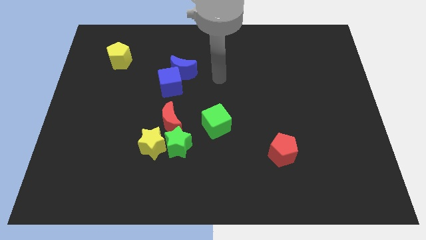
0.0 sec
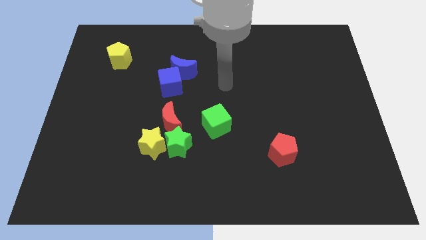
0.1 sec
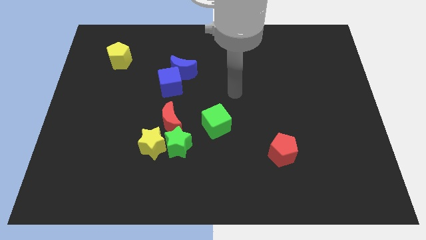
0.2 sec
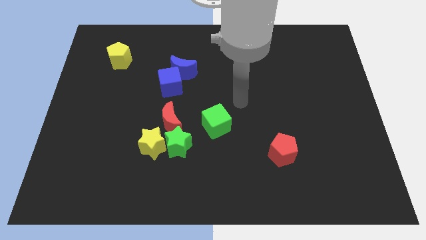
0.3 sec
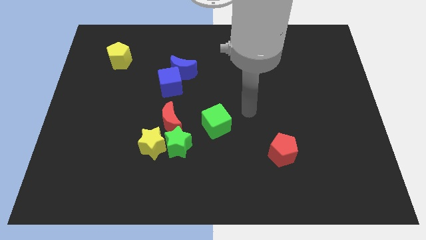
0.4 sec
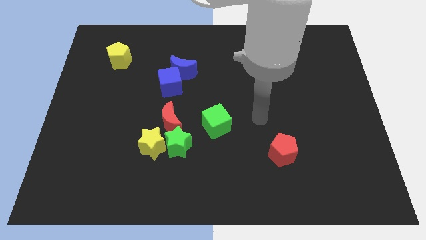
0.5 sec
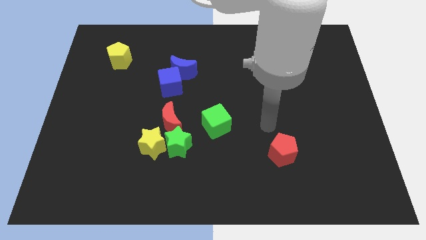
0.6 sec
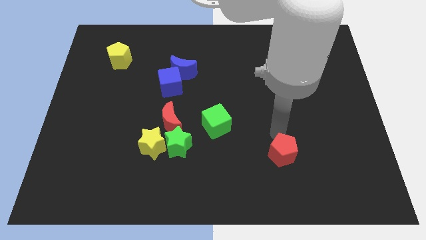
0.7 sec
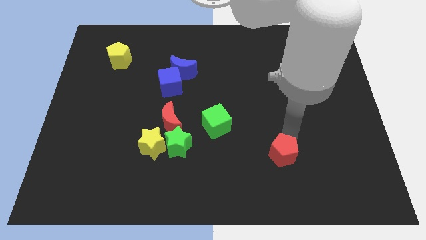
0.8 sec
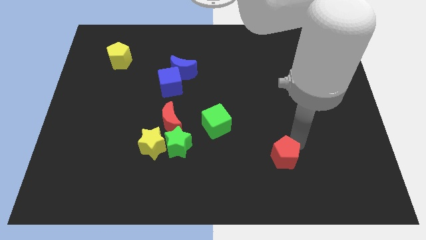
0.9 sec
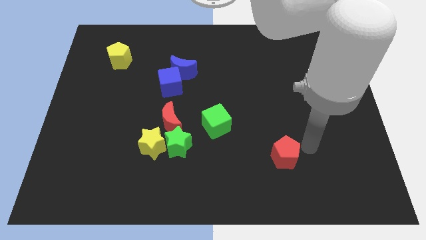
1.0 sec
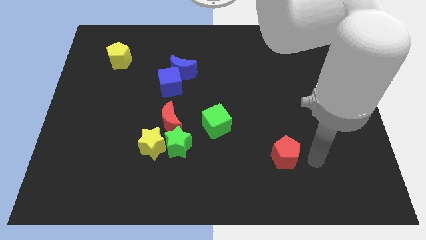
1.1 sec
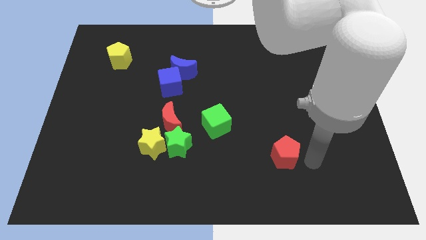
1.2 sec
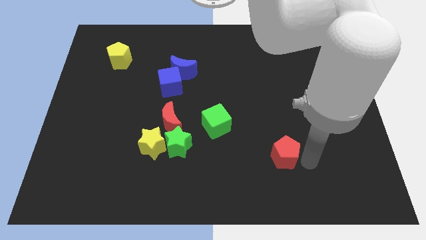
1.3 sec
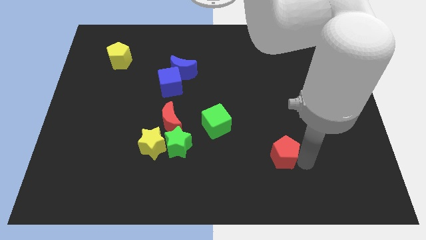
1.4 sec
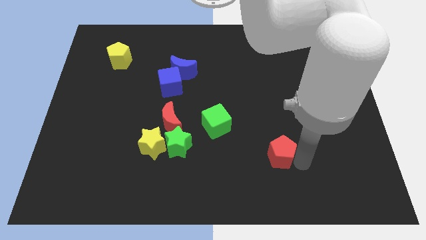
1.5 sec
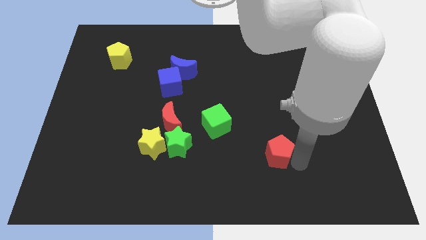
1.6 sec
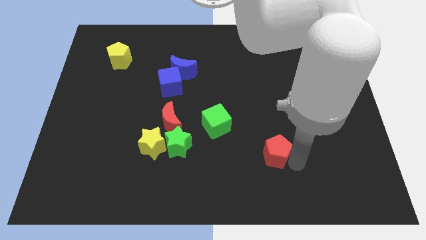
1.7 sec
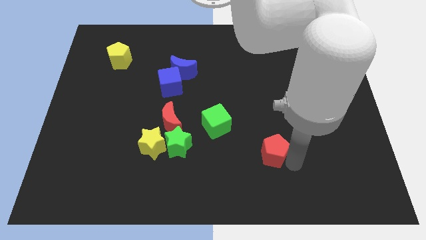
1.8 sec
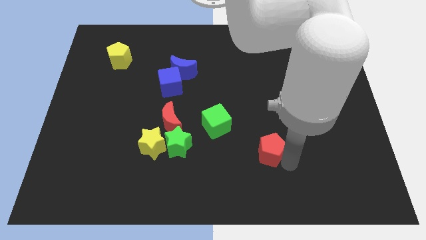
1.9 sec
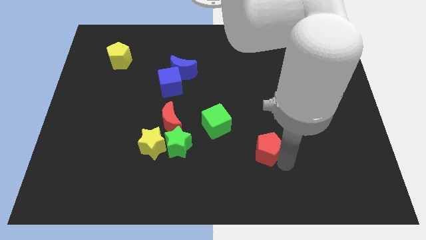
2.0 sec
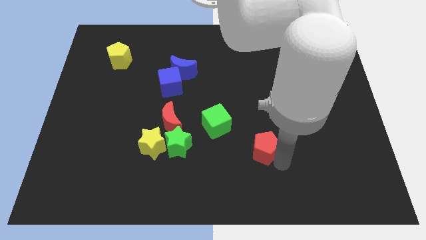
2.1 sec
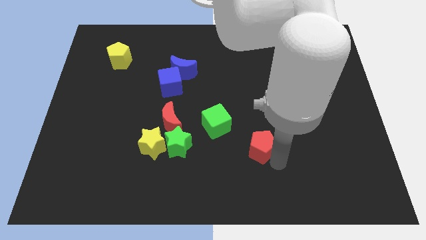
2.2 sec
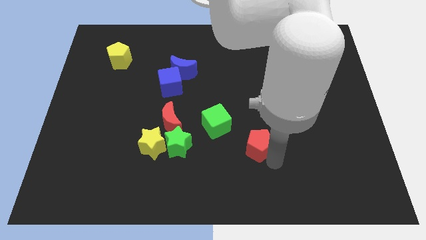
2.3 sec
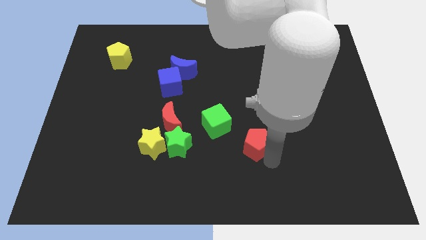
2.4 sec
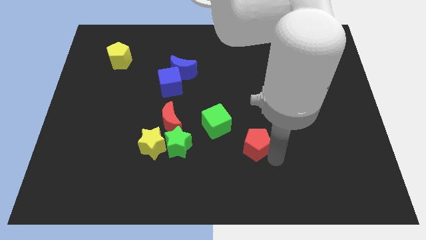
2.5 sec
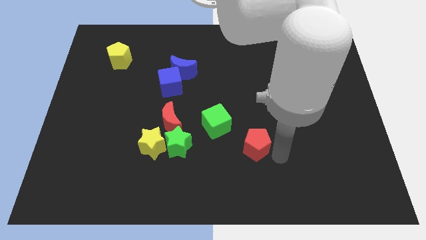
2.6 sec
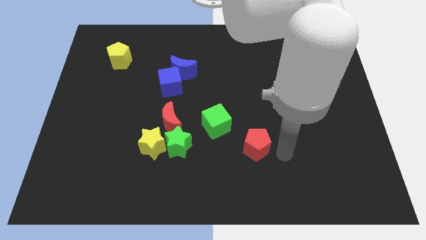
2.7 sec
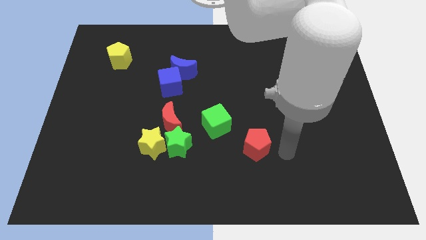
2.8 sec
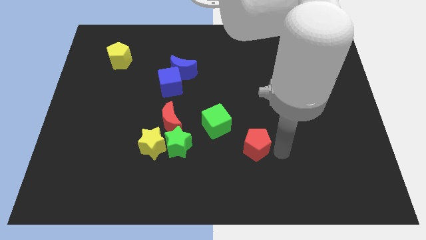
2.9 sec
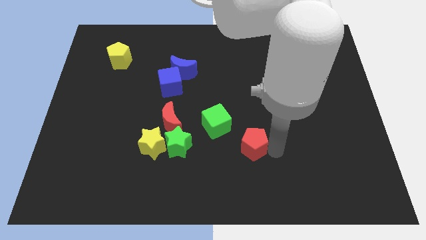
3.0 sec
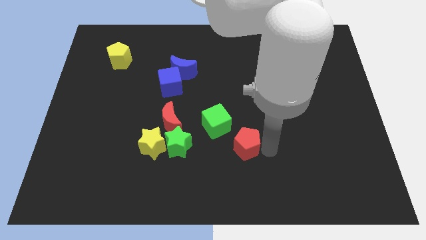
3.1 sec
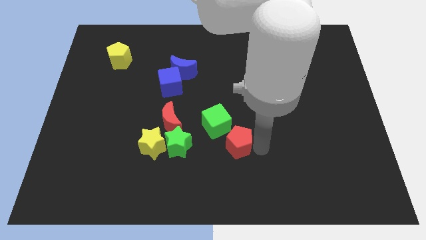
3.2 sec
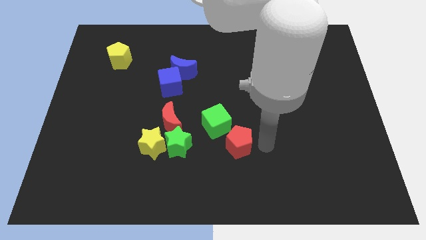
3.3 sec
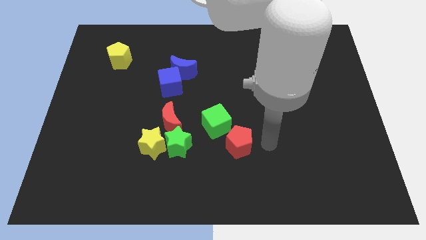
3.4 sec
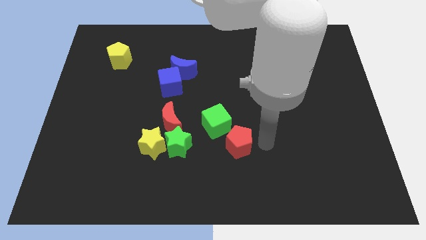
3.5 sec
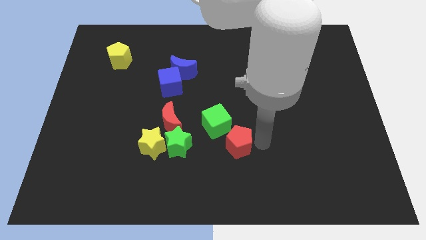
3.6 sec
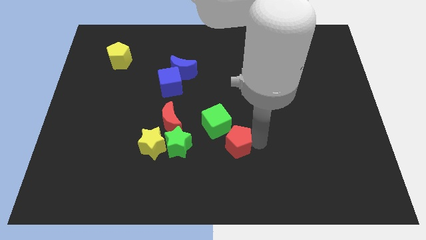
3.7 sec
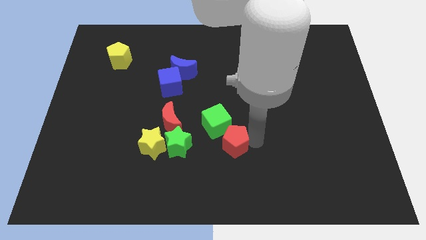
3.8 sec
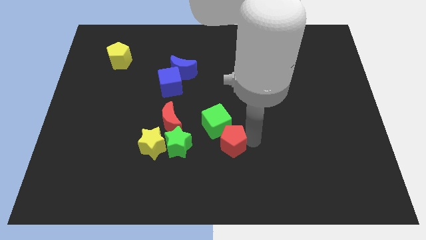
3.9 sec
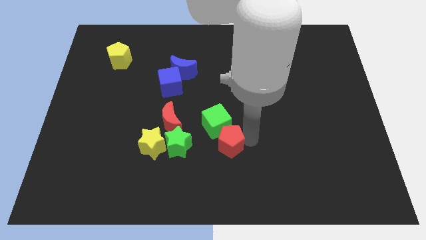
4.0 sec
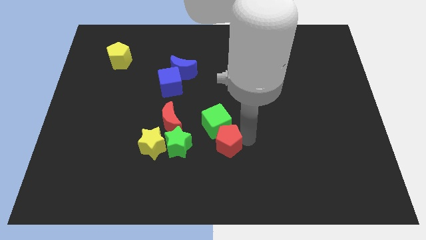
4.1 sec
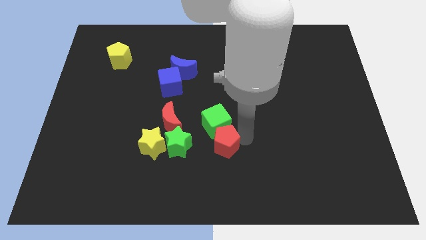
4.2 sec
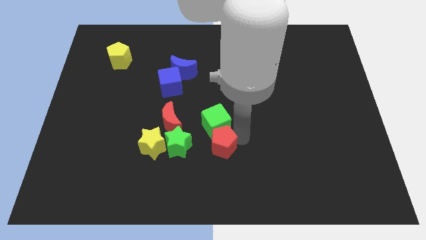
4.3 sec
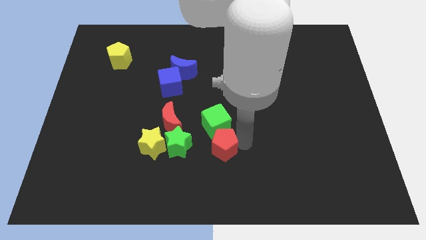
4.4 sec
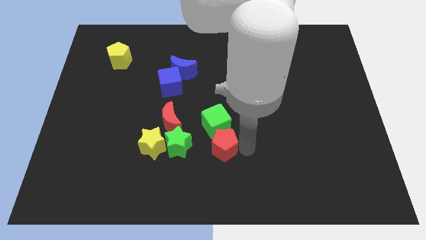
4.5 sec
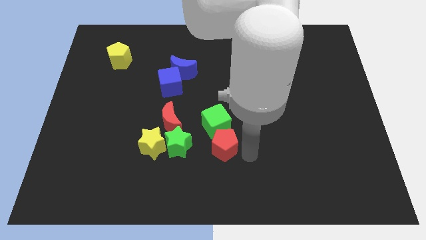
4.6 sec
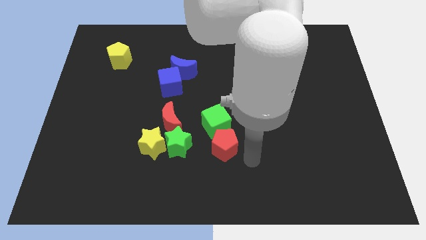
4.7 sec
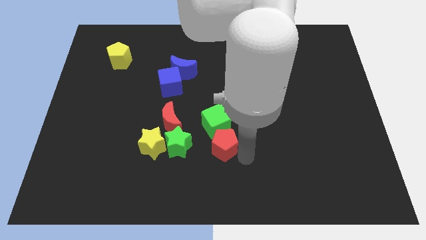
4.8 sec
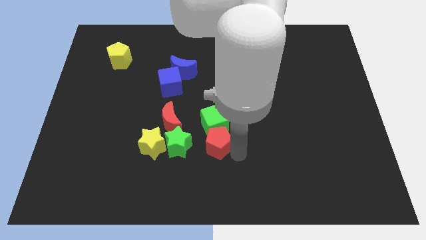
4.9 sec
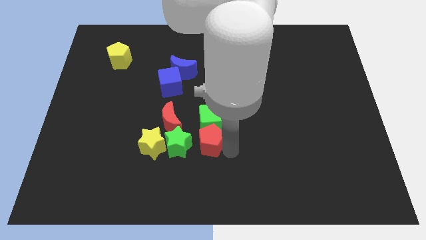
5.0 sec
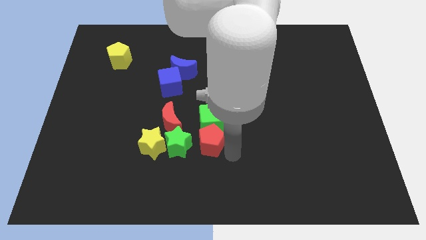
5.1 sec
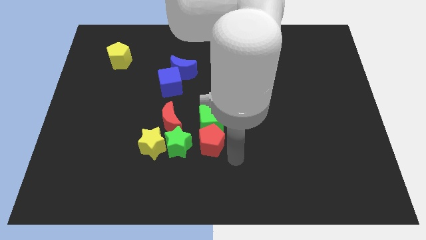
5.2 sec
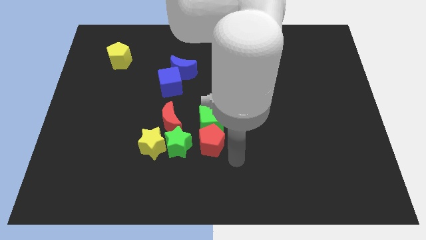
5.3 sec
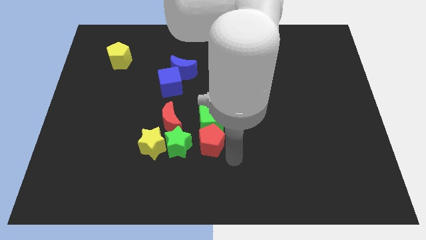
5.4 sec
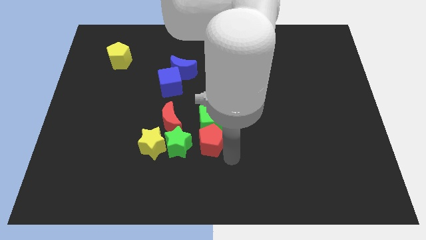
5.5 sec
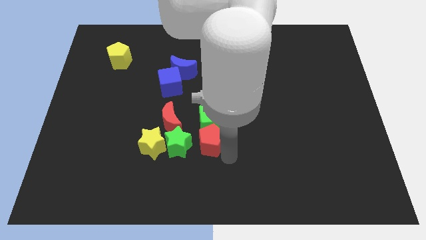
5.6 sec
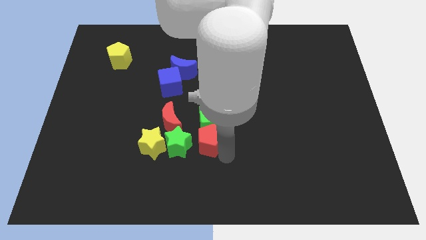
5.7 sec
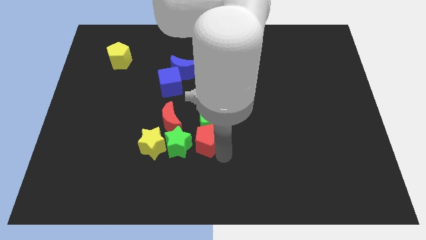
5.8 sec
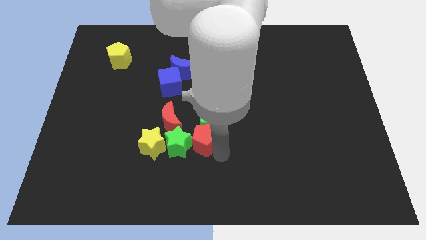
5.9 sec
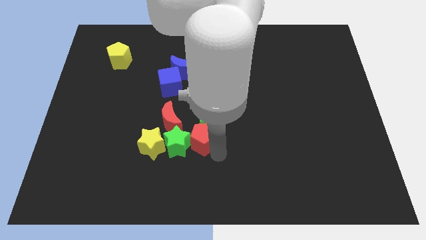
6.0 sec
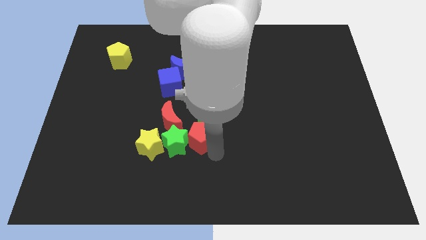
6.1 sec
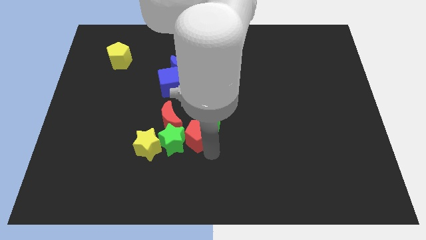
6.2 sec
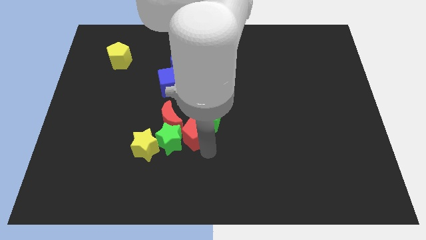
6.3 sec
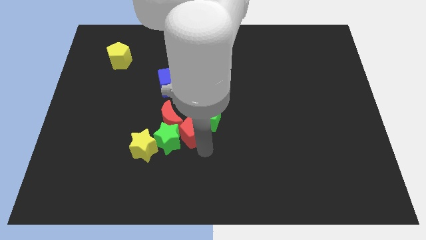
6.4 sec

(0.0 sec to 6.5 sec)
push the red pentagon close to the red moon

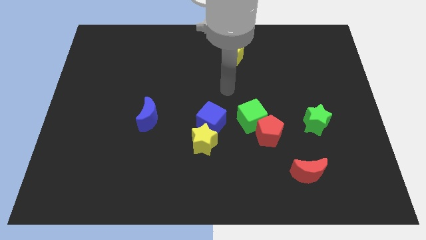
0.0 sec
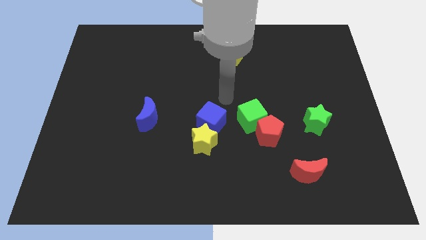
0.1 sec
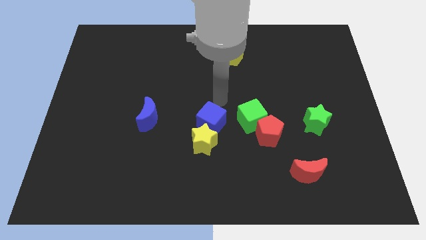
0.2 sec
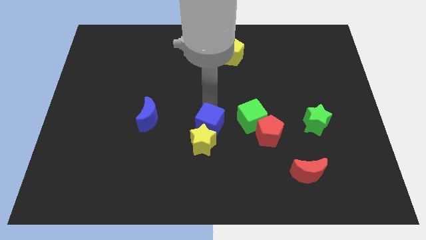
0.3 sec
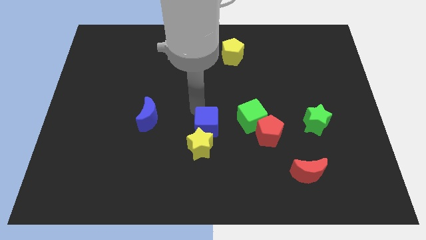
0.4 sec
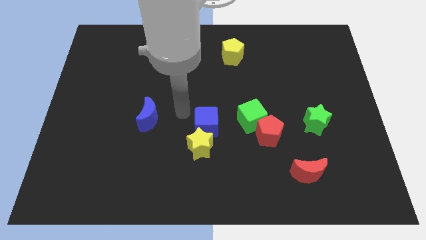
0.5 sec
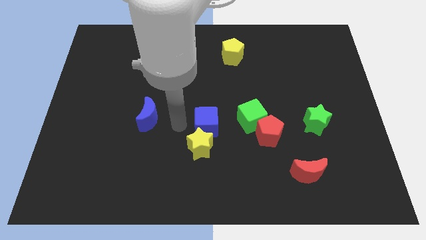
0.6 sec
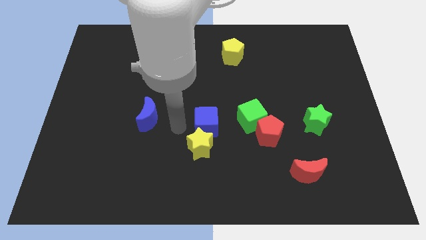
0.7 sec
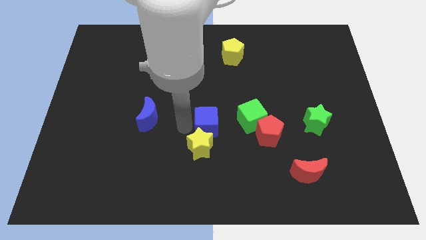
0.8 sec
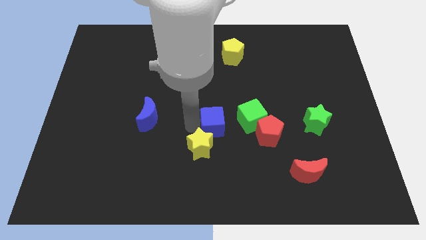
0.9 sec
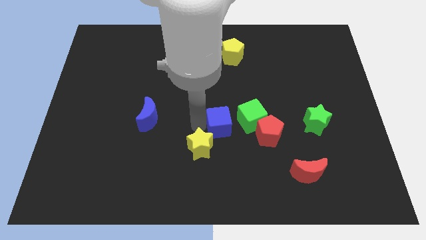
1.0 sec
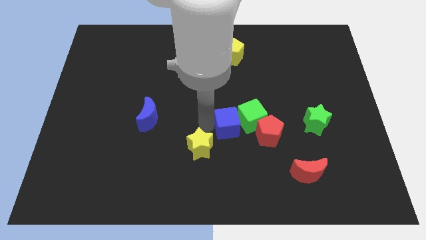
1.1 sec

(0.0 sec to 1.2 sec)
push the blue cube to the green cube
